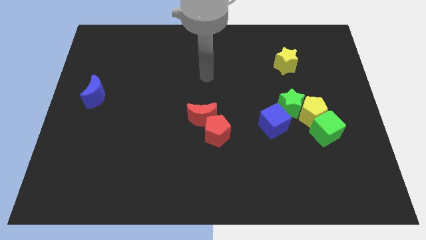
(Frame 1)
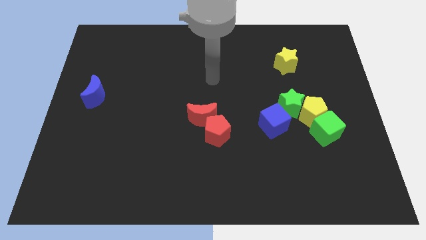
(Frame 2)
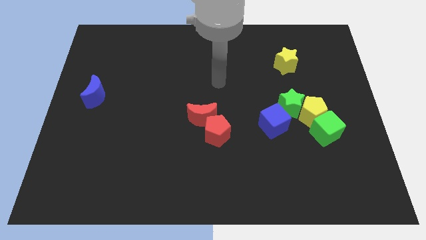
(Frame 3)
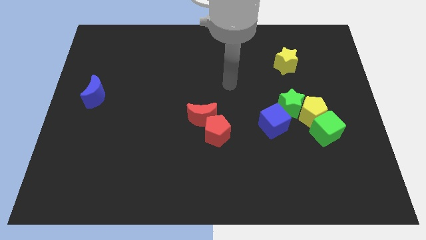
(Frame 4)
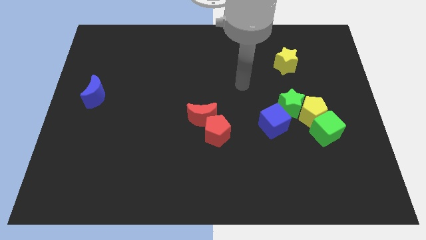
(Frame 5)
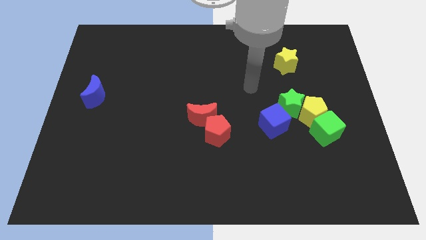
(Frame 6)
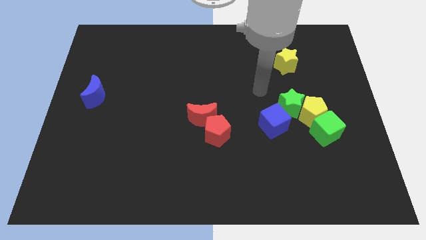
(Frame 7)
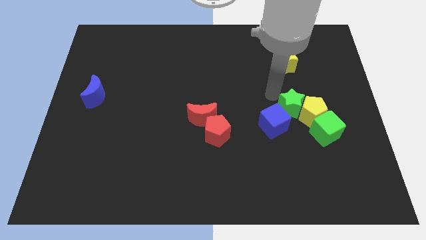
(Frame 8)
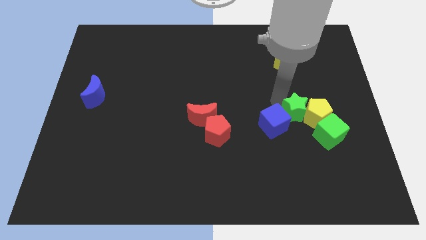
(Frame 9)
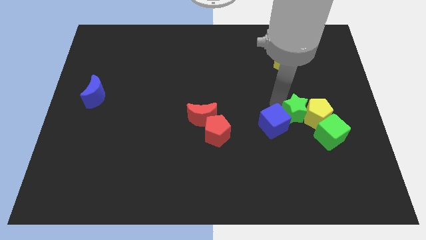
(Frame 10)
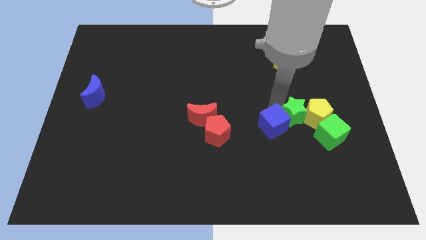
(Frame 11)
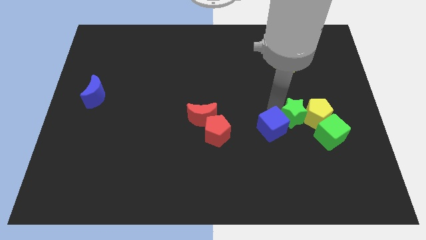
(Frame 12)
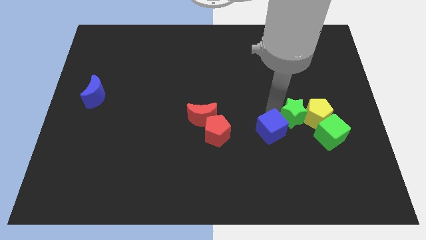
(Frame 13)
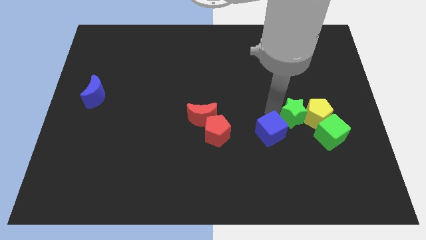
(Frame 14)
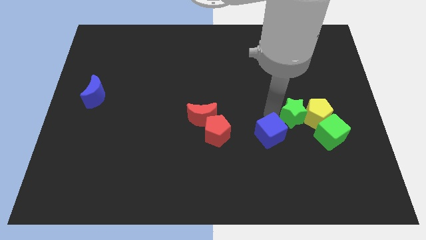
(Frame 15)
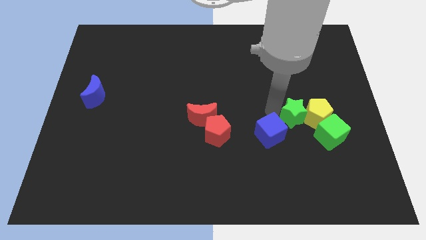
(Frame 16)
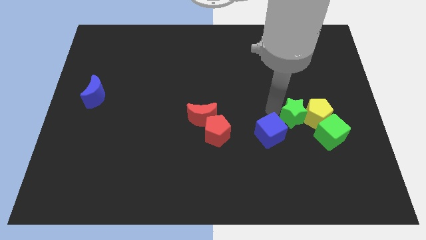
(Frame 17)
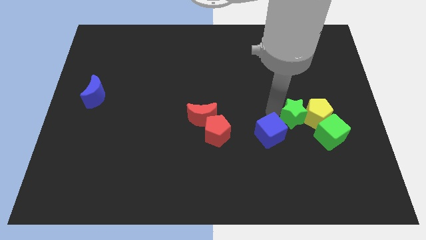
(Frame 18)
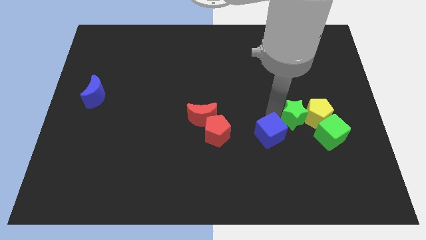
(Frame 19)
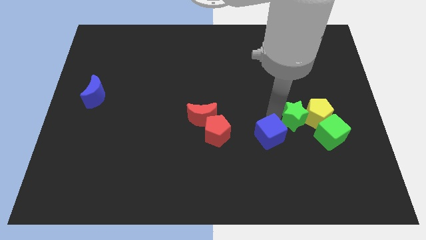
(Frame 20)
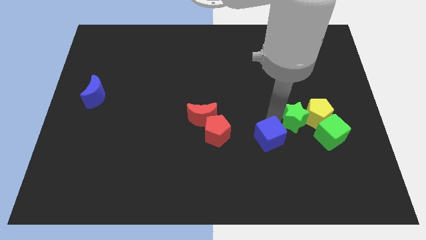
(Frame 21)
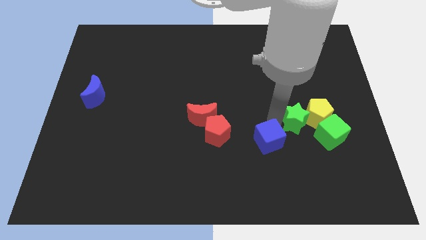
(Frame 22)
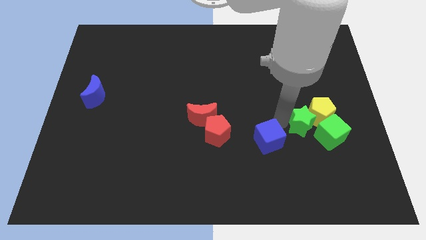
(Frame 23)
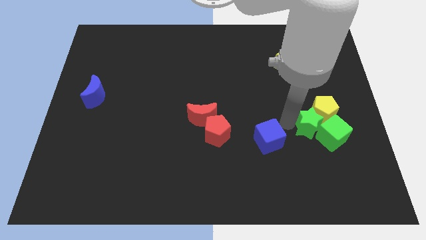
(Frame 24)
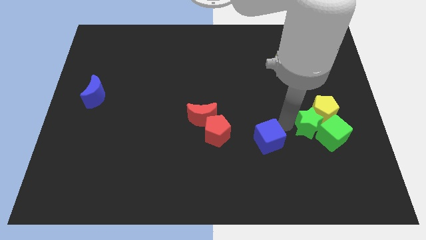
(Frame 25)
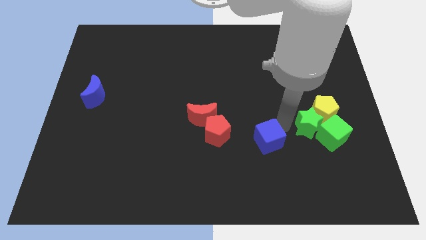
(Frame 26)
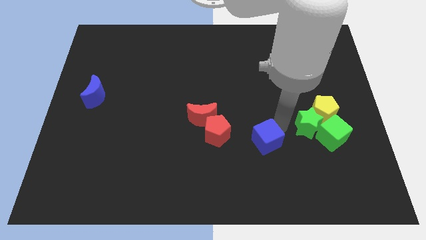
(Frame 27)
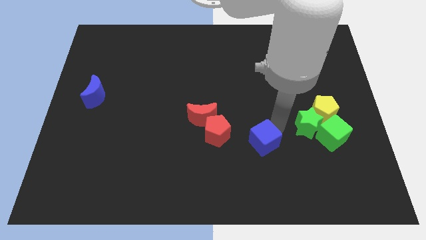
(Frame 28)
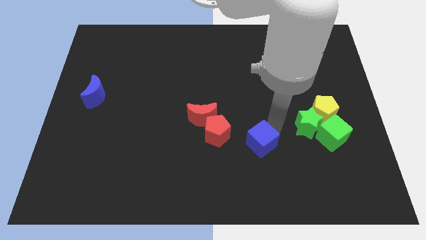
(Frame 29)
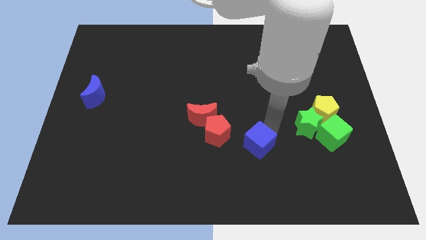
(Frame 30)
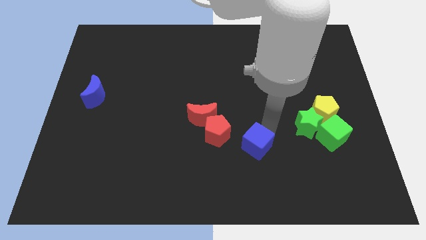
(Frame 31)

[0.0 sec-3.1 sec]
slightly push the blue cube downwards and then left

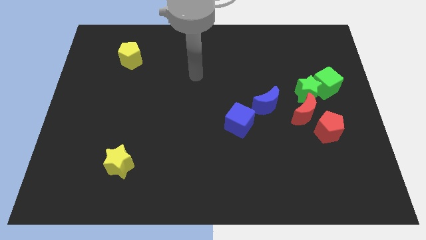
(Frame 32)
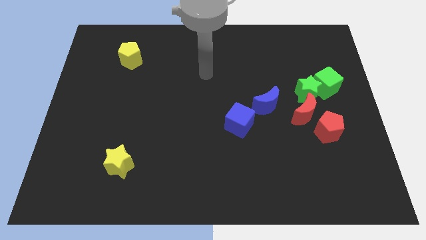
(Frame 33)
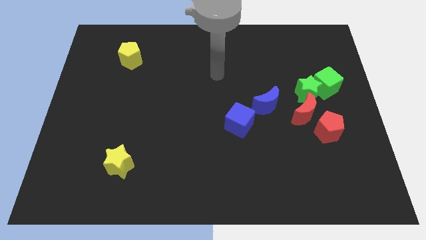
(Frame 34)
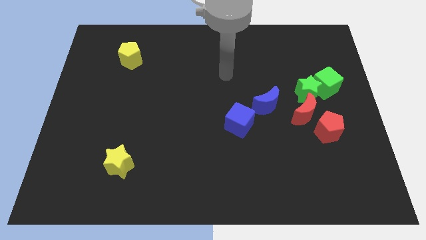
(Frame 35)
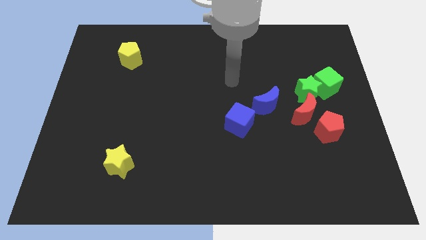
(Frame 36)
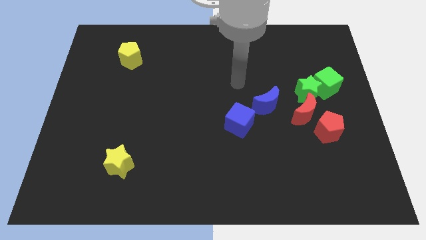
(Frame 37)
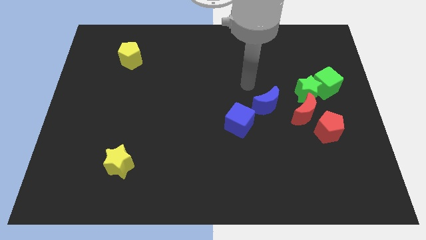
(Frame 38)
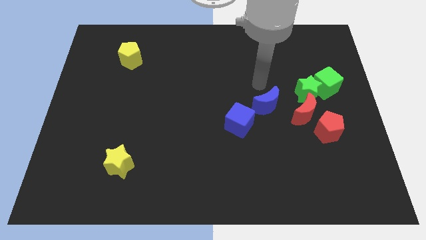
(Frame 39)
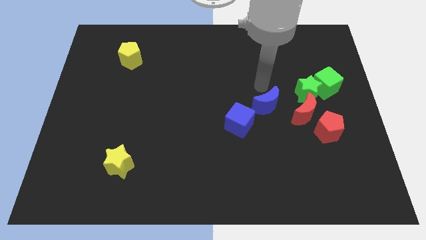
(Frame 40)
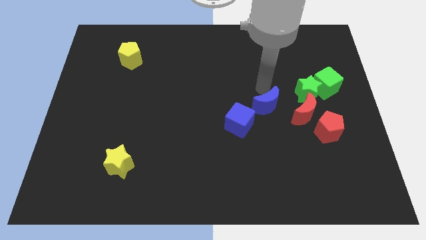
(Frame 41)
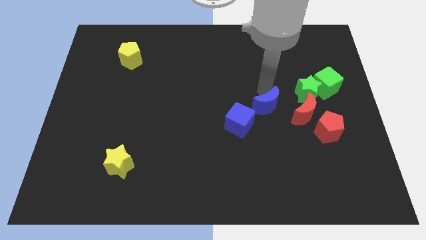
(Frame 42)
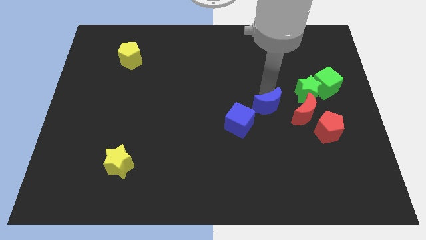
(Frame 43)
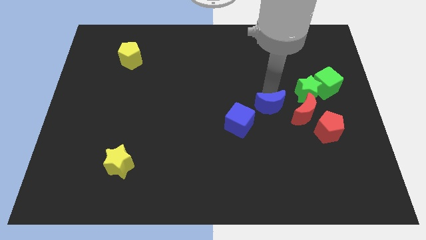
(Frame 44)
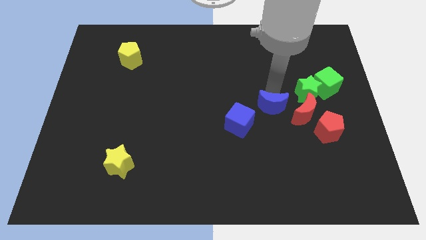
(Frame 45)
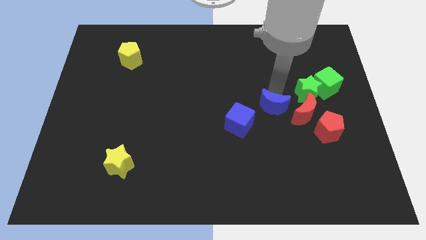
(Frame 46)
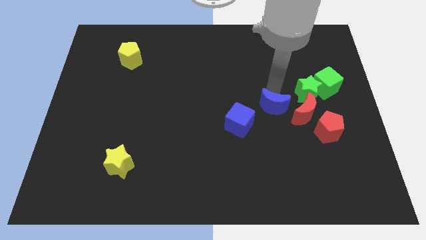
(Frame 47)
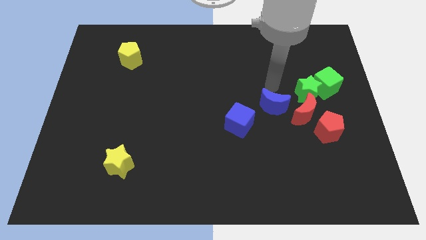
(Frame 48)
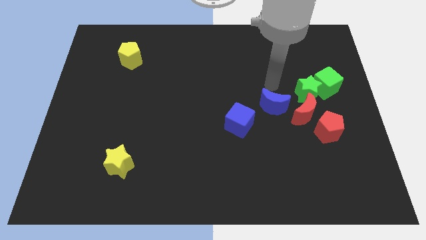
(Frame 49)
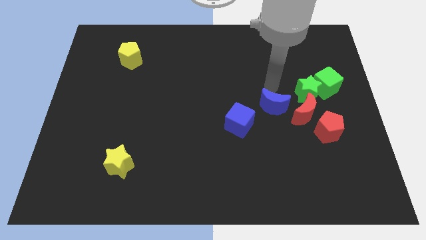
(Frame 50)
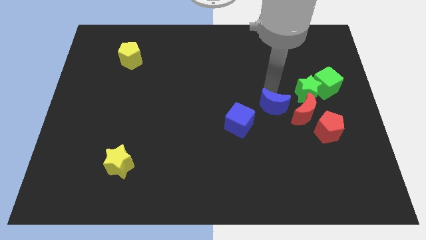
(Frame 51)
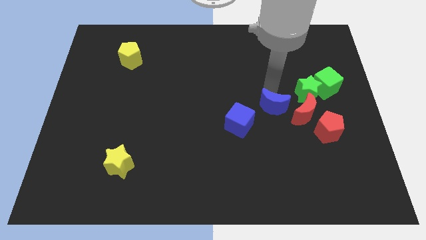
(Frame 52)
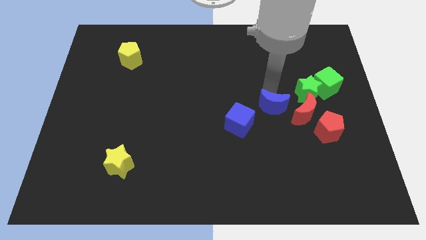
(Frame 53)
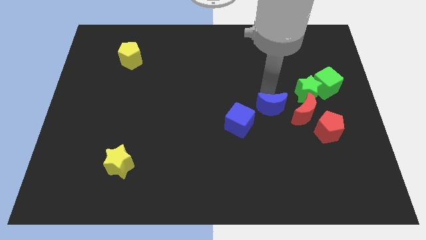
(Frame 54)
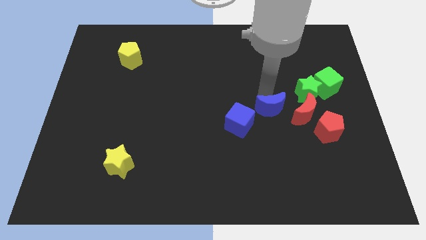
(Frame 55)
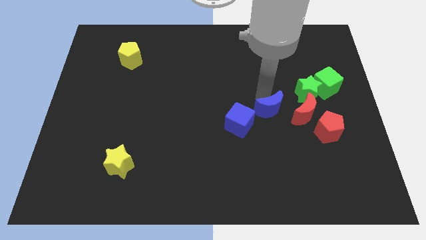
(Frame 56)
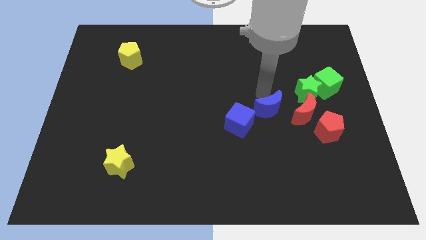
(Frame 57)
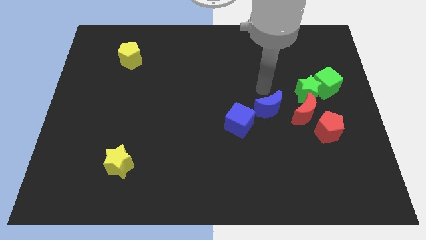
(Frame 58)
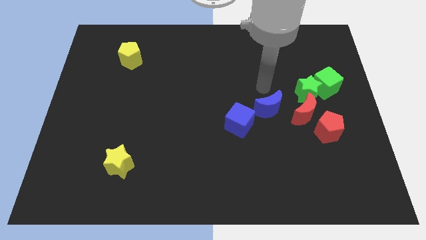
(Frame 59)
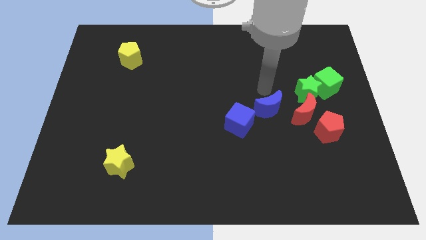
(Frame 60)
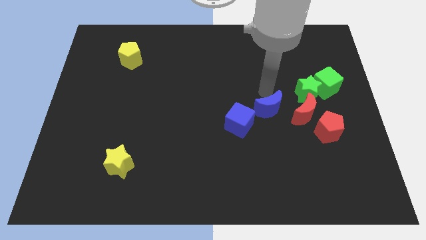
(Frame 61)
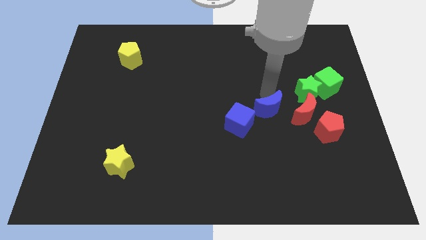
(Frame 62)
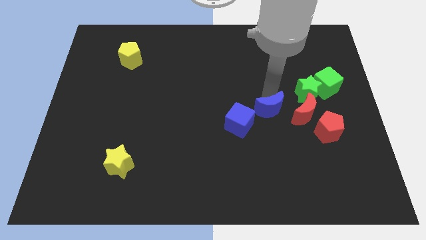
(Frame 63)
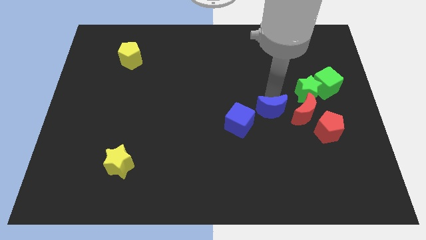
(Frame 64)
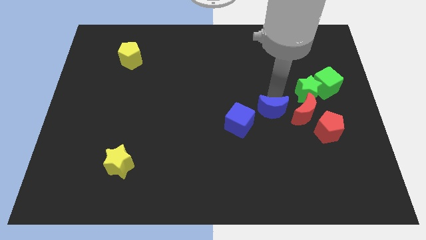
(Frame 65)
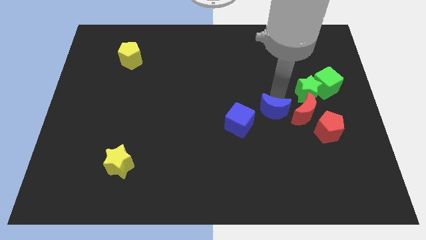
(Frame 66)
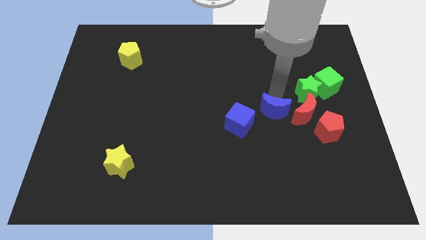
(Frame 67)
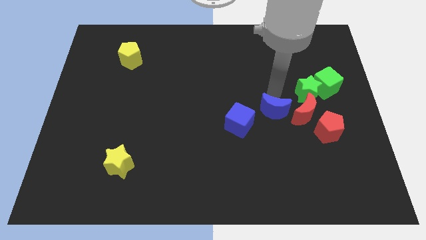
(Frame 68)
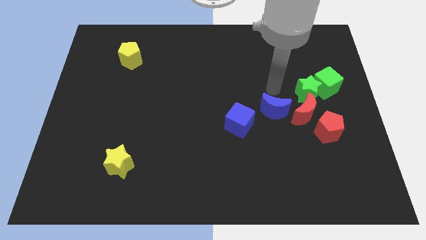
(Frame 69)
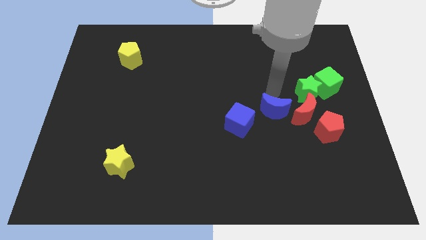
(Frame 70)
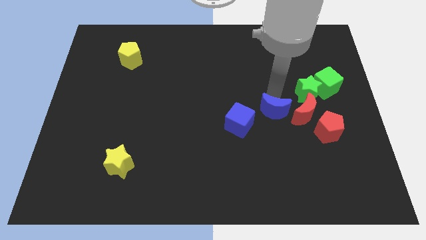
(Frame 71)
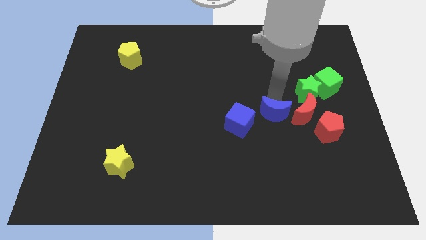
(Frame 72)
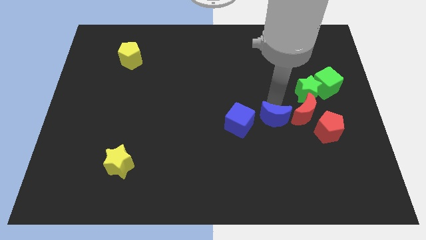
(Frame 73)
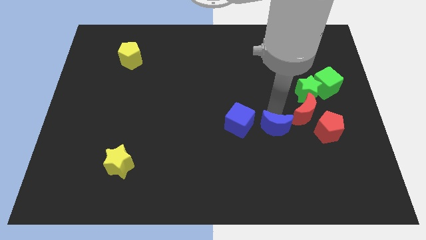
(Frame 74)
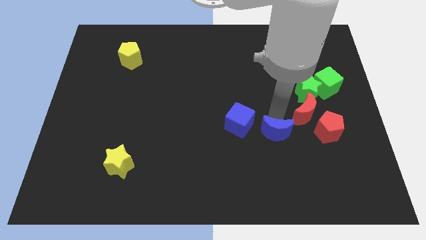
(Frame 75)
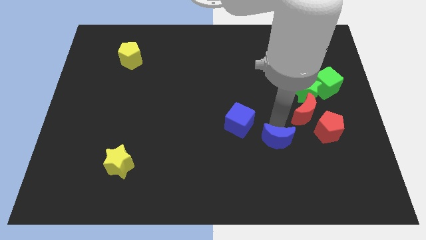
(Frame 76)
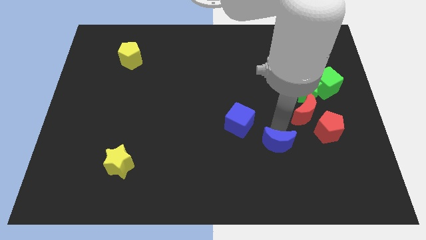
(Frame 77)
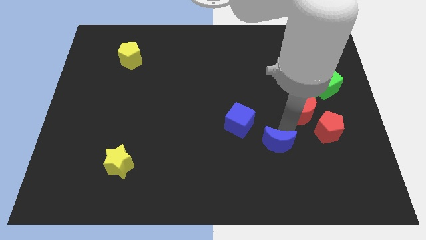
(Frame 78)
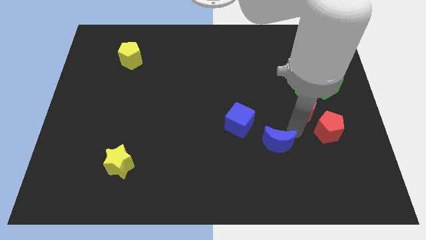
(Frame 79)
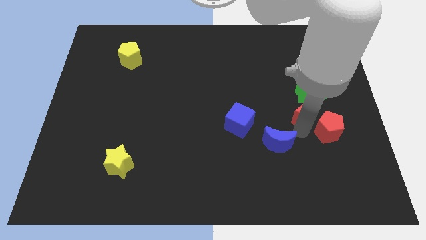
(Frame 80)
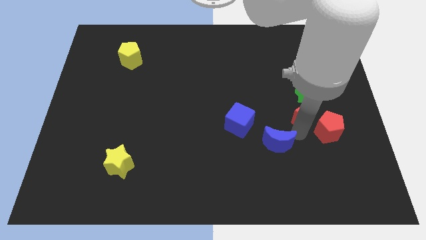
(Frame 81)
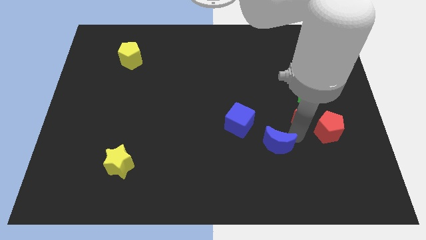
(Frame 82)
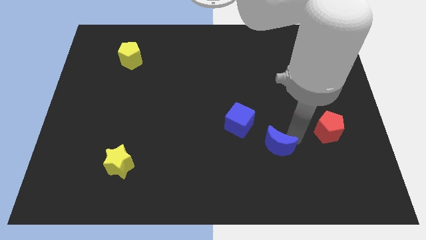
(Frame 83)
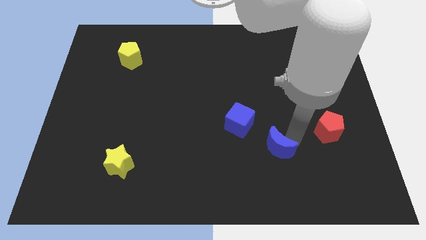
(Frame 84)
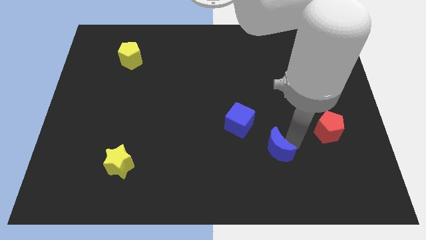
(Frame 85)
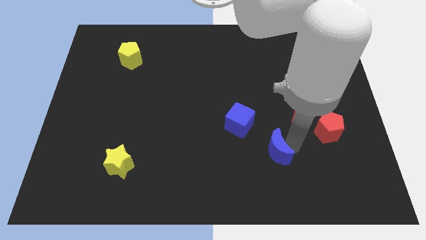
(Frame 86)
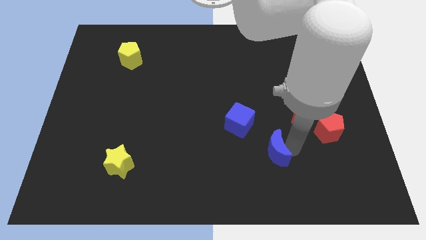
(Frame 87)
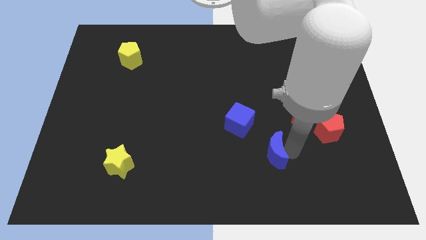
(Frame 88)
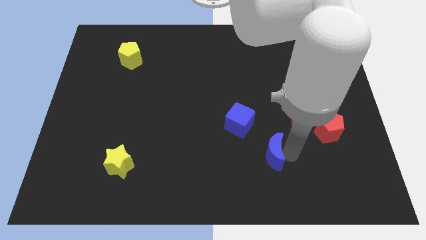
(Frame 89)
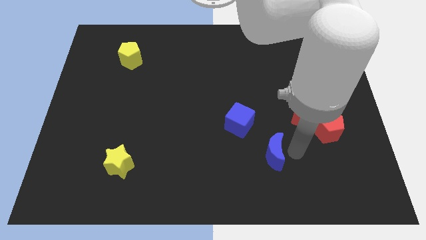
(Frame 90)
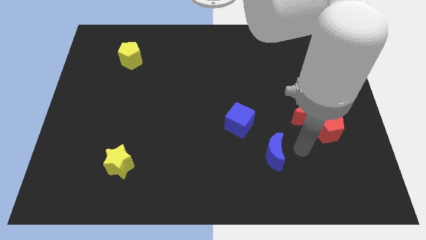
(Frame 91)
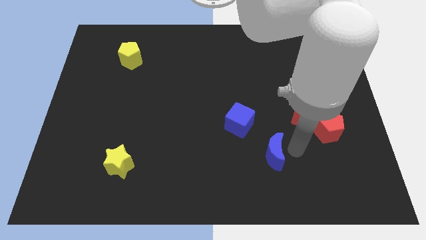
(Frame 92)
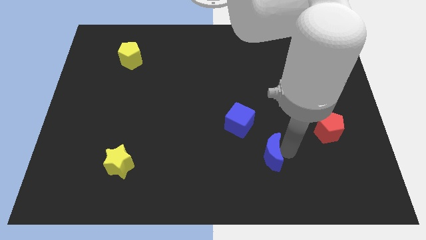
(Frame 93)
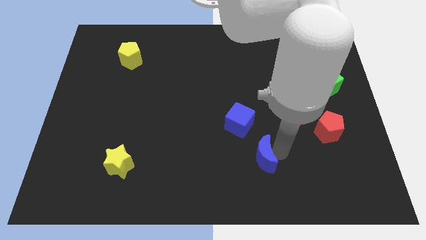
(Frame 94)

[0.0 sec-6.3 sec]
move the blue moon a little downwards and then to the left
